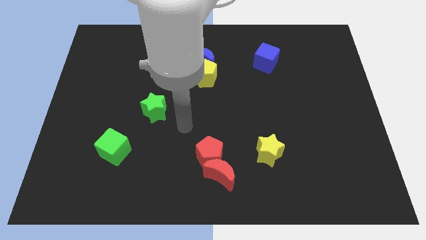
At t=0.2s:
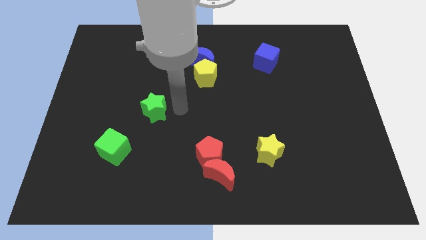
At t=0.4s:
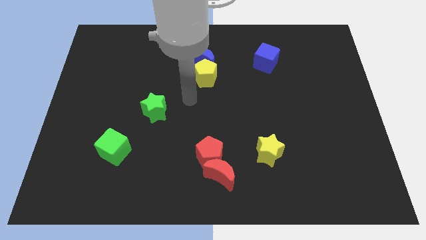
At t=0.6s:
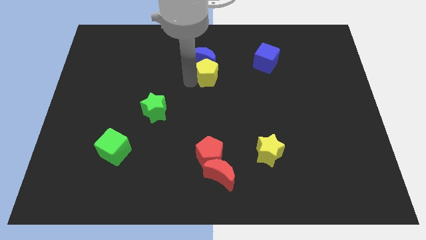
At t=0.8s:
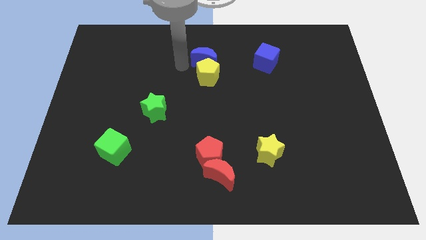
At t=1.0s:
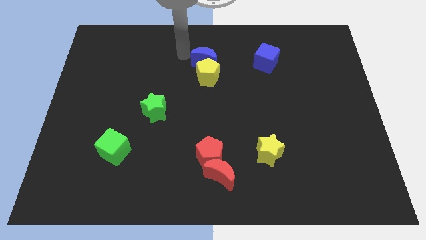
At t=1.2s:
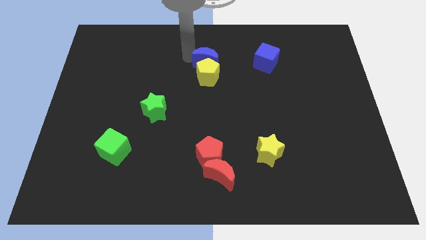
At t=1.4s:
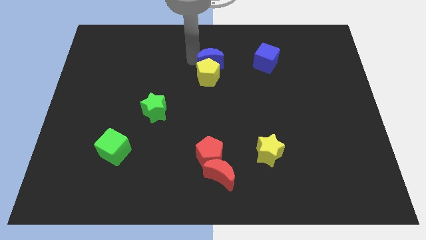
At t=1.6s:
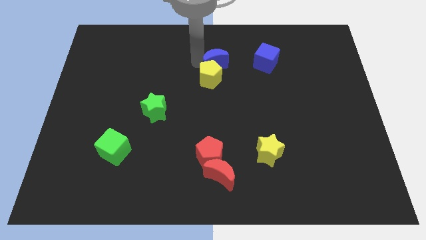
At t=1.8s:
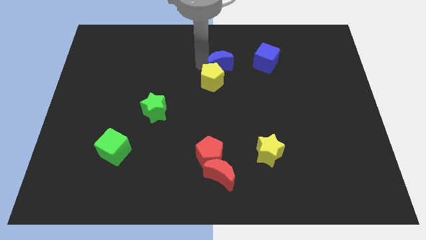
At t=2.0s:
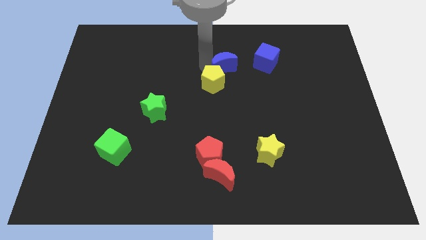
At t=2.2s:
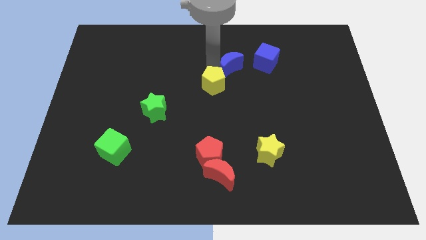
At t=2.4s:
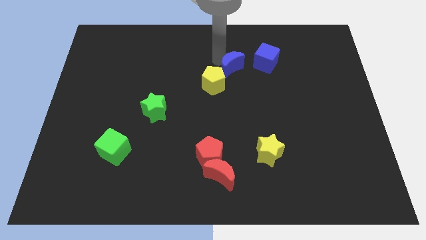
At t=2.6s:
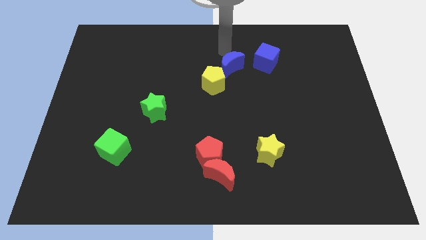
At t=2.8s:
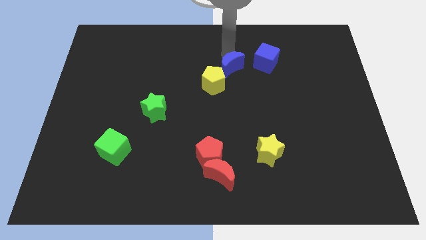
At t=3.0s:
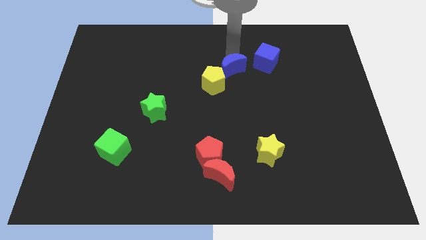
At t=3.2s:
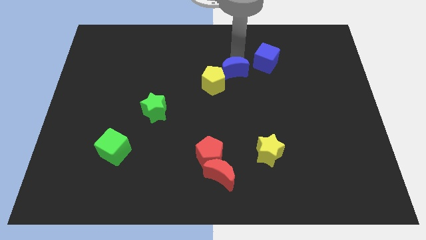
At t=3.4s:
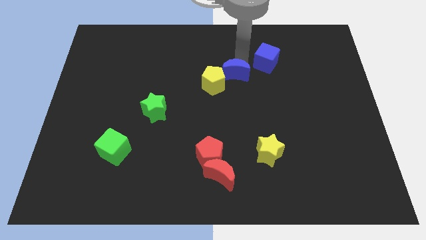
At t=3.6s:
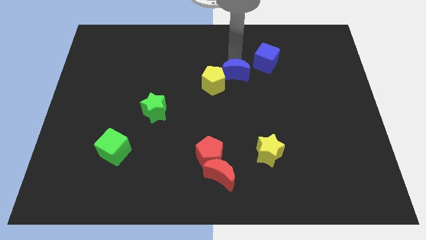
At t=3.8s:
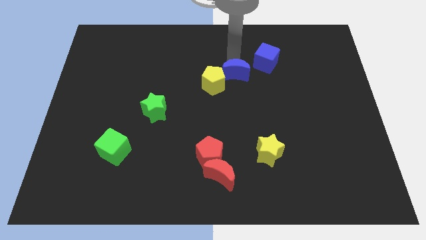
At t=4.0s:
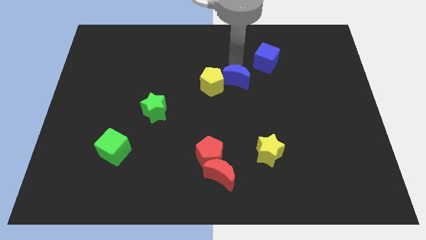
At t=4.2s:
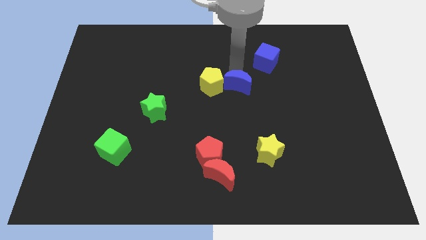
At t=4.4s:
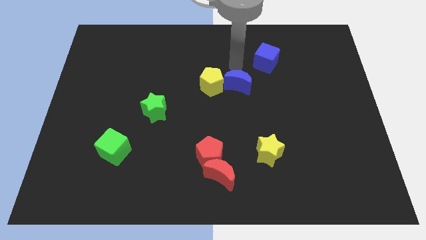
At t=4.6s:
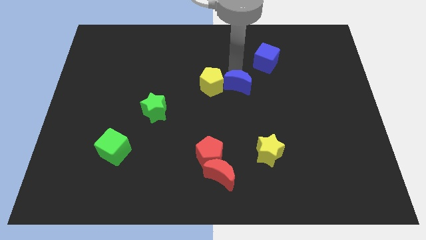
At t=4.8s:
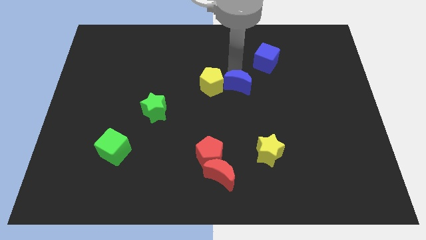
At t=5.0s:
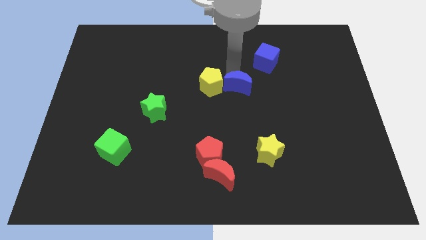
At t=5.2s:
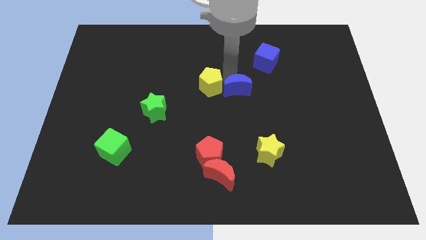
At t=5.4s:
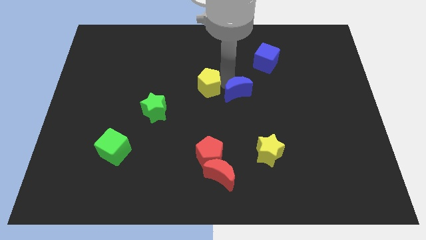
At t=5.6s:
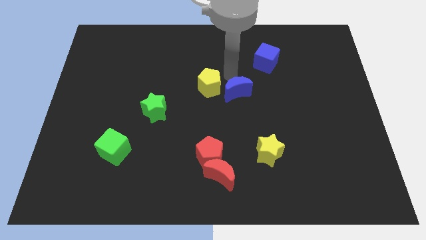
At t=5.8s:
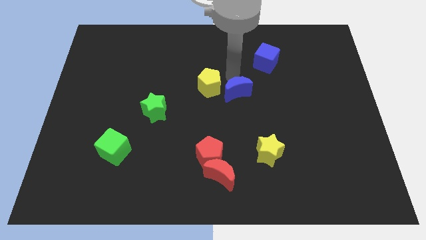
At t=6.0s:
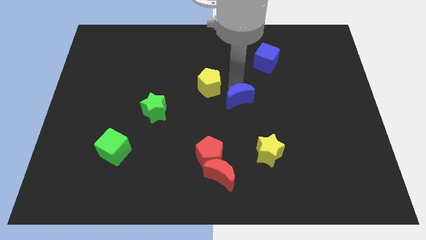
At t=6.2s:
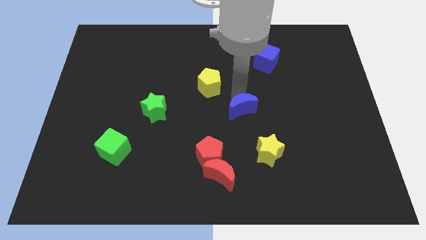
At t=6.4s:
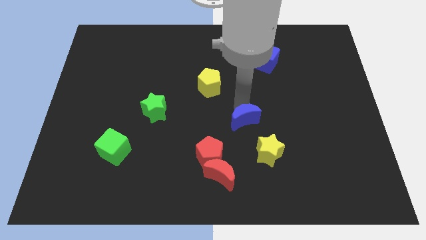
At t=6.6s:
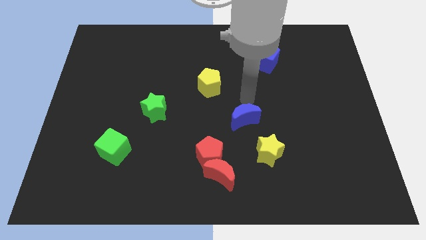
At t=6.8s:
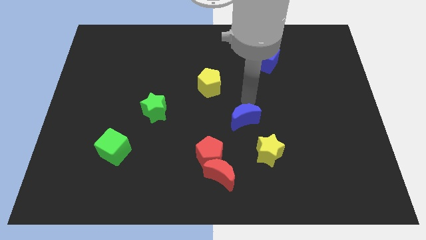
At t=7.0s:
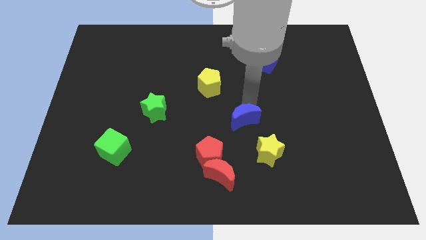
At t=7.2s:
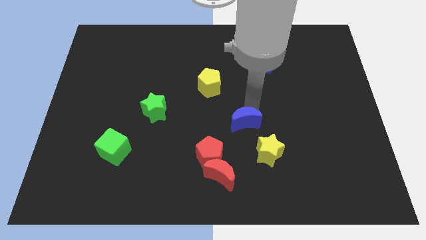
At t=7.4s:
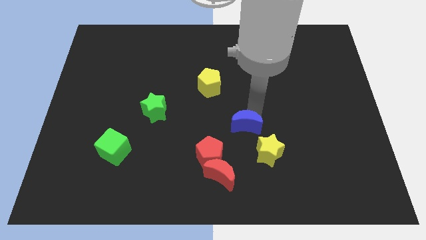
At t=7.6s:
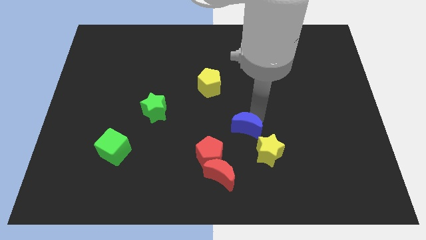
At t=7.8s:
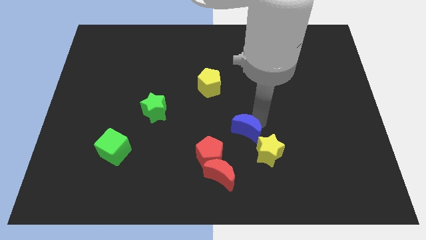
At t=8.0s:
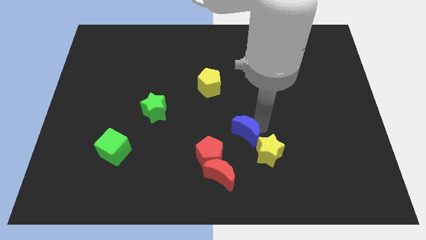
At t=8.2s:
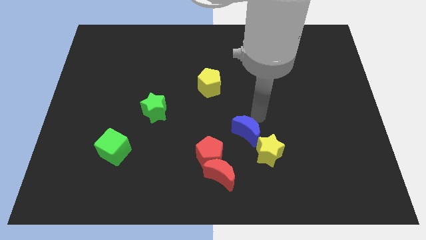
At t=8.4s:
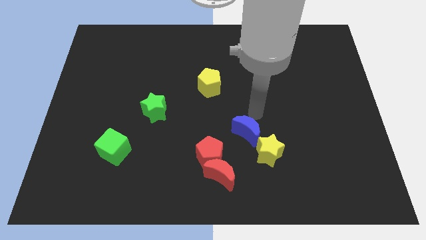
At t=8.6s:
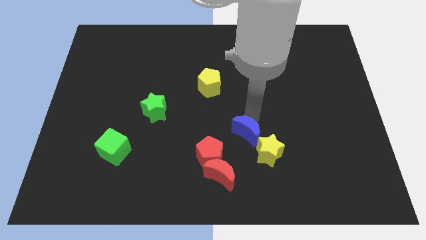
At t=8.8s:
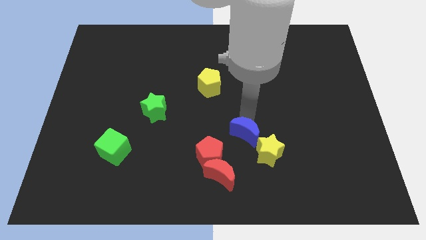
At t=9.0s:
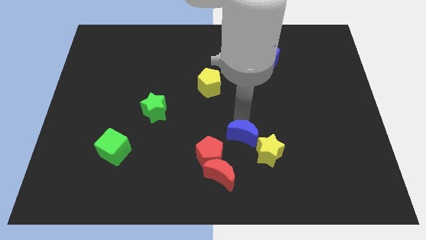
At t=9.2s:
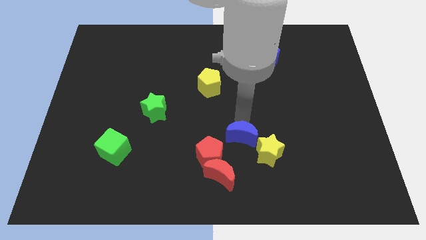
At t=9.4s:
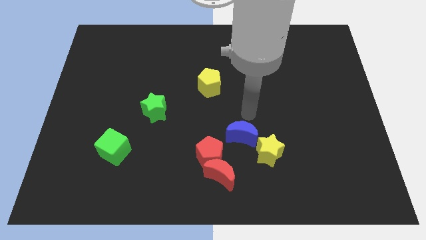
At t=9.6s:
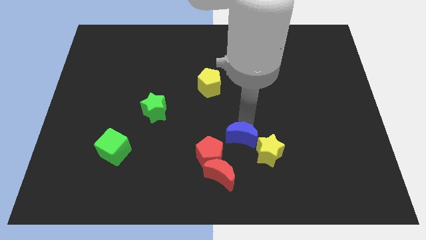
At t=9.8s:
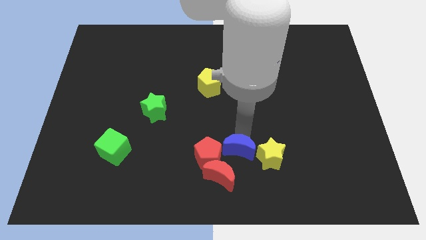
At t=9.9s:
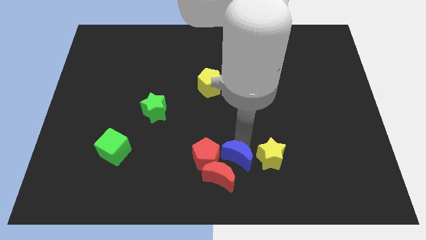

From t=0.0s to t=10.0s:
push the blue moon close to the red moon

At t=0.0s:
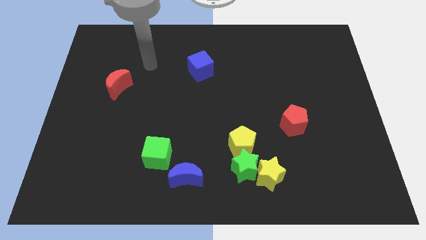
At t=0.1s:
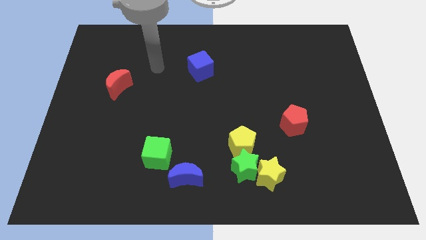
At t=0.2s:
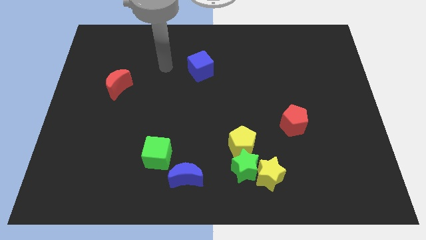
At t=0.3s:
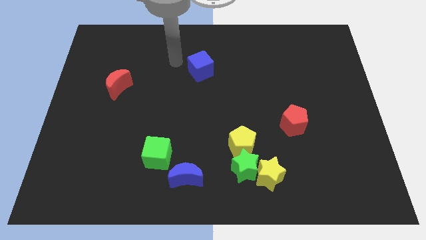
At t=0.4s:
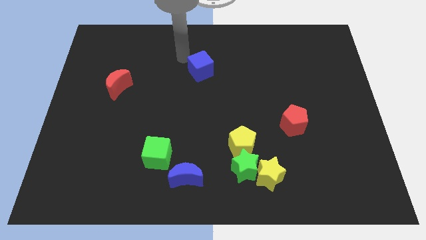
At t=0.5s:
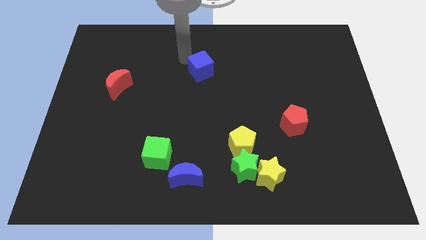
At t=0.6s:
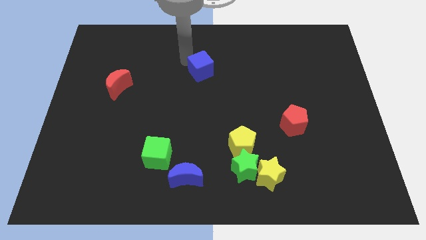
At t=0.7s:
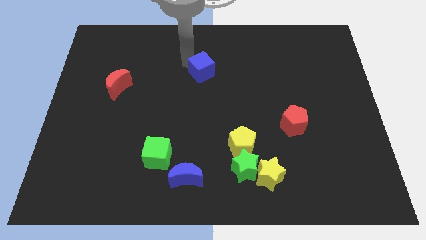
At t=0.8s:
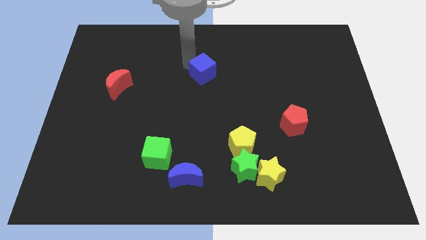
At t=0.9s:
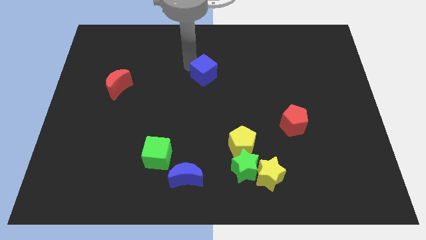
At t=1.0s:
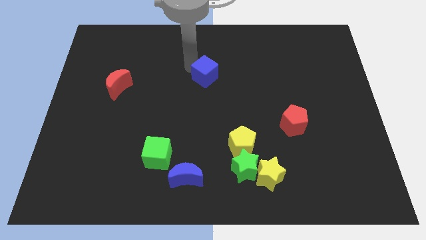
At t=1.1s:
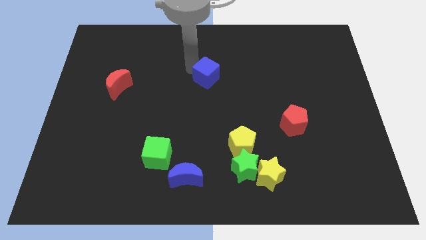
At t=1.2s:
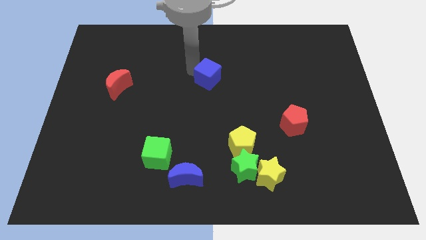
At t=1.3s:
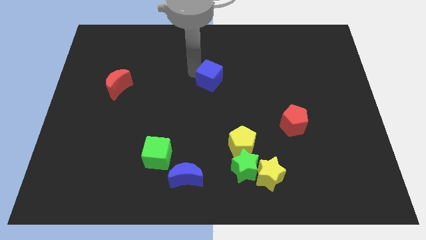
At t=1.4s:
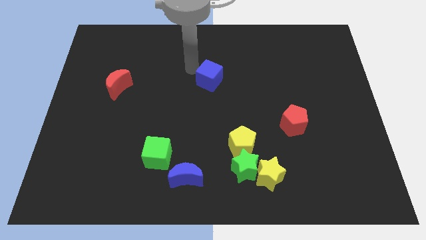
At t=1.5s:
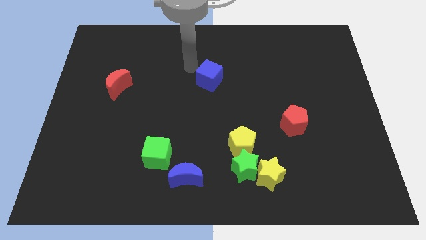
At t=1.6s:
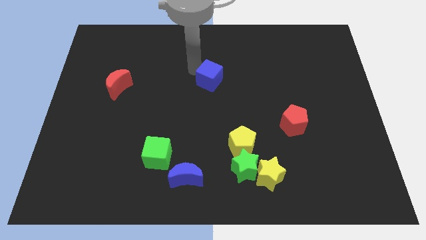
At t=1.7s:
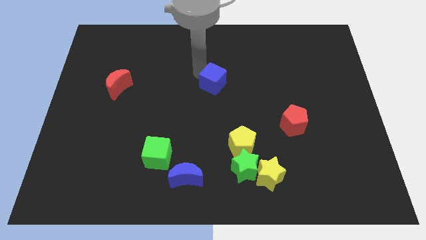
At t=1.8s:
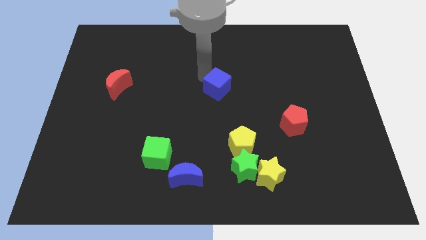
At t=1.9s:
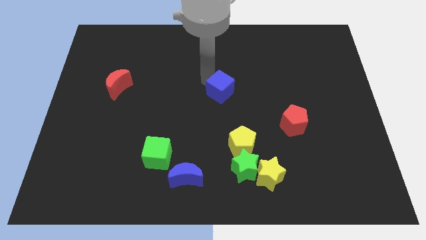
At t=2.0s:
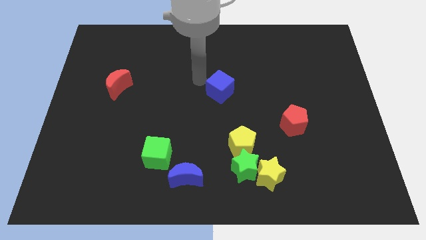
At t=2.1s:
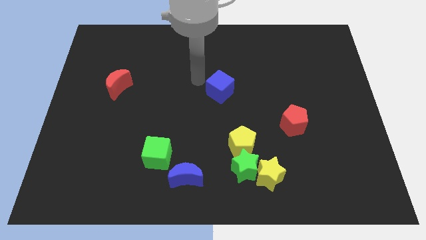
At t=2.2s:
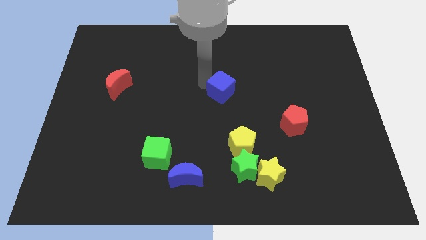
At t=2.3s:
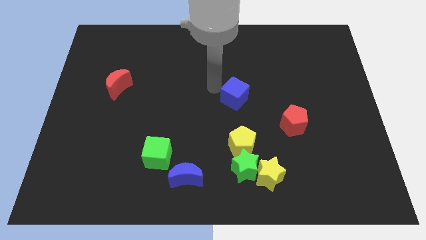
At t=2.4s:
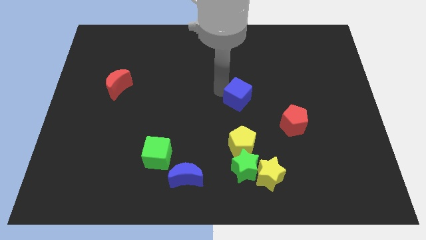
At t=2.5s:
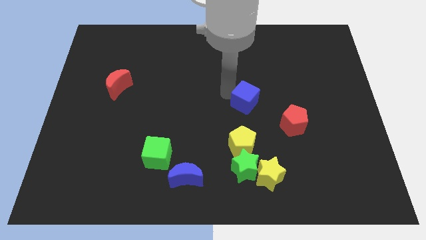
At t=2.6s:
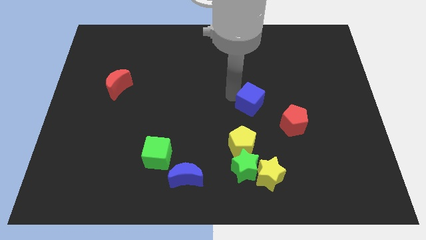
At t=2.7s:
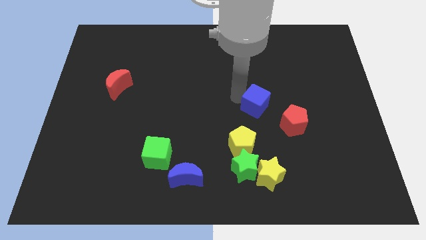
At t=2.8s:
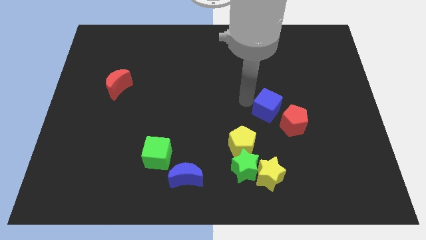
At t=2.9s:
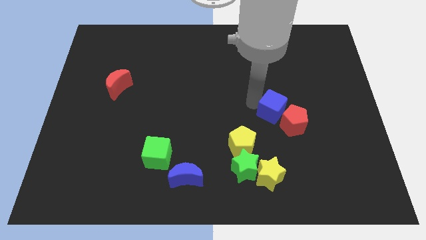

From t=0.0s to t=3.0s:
move the blue cube to the red pentagon
